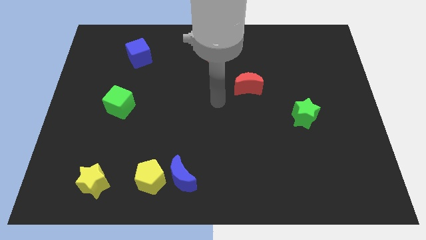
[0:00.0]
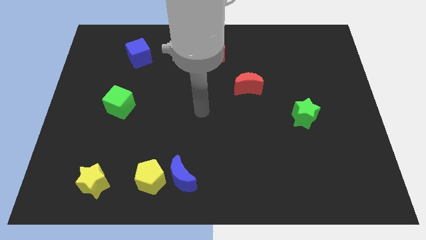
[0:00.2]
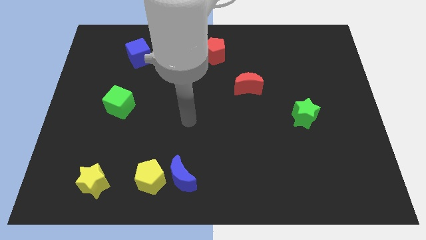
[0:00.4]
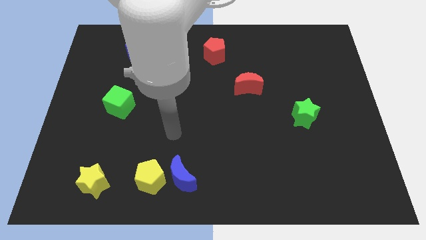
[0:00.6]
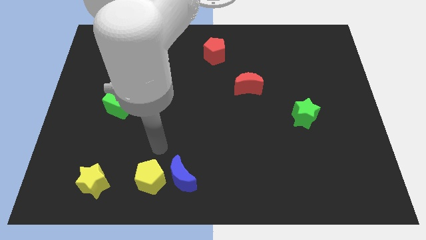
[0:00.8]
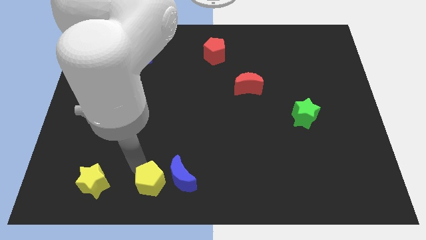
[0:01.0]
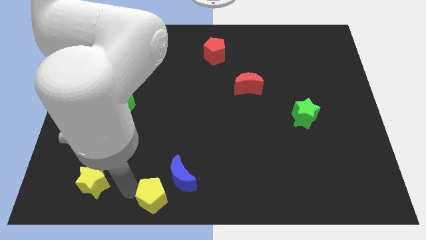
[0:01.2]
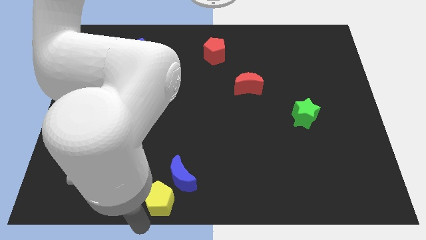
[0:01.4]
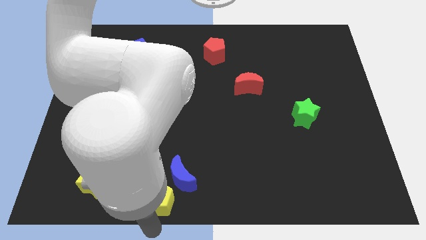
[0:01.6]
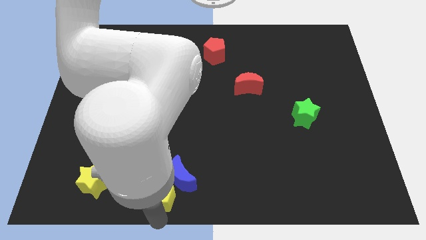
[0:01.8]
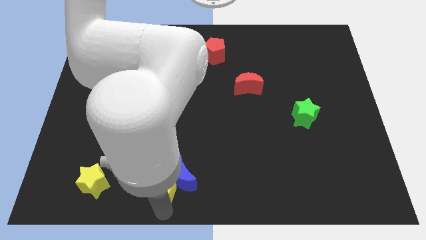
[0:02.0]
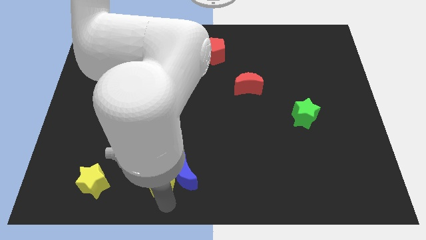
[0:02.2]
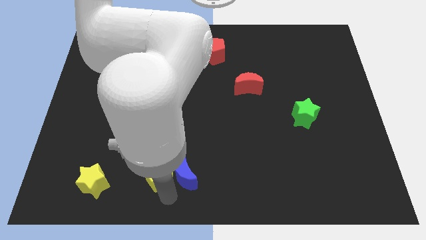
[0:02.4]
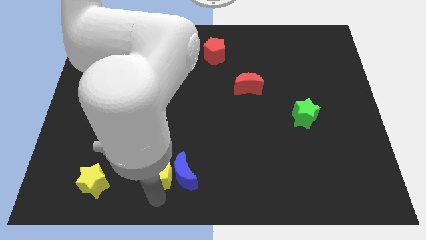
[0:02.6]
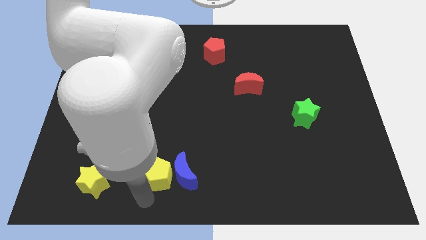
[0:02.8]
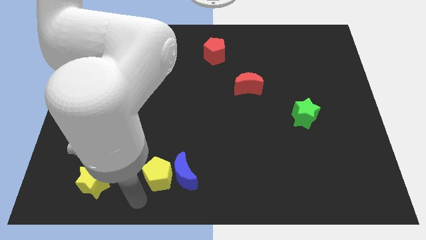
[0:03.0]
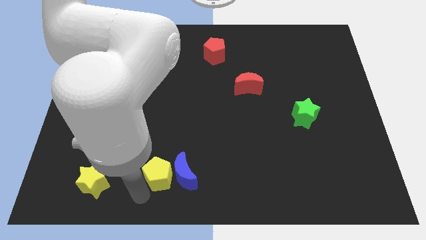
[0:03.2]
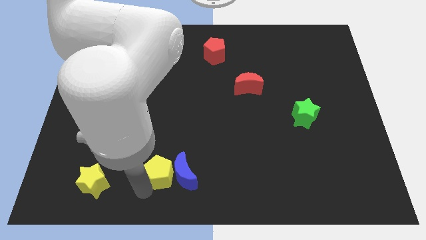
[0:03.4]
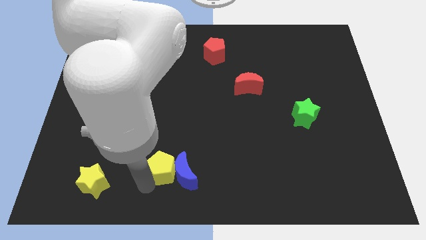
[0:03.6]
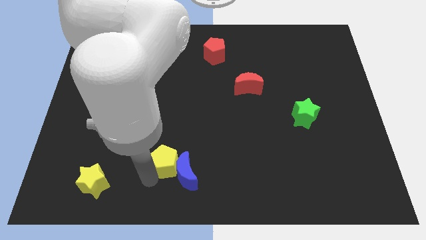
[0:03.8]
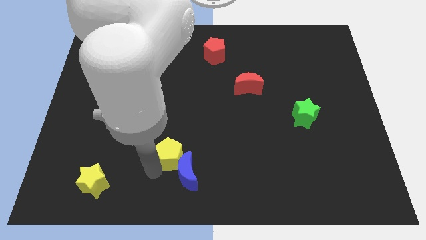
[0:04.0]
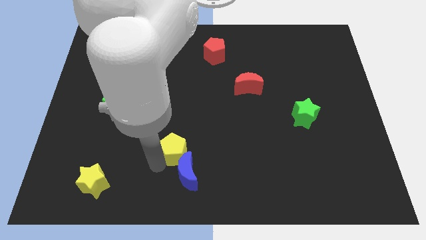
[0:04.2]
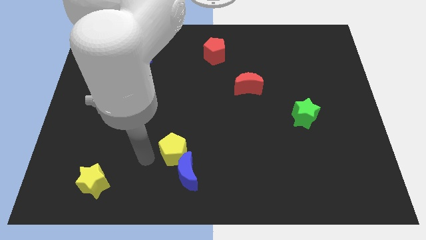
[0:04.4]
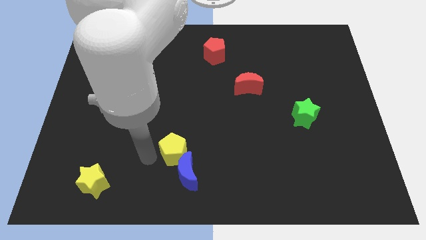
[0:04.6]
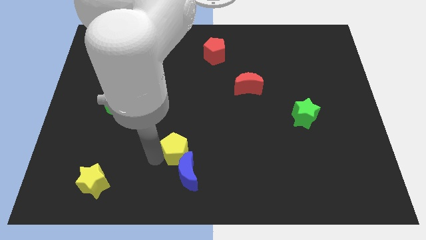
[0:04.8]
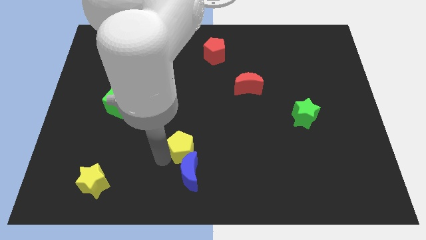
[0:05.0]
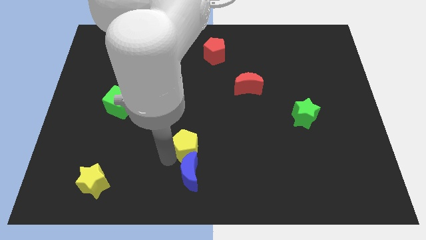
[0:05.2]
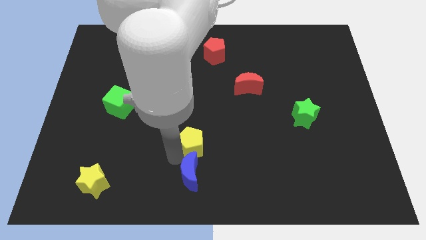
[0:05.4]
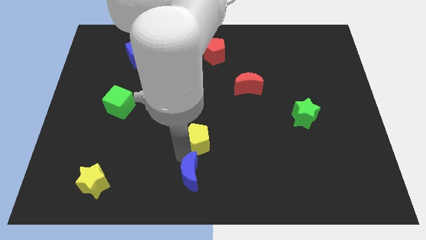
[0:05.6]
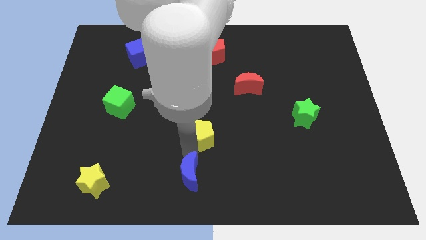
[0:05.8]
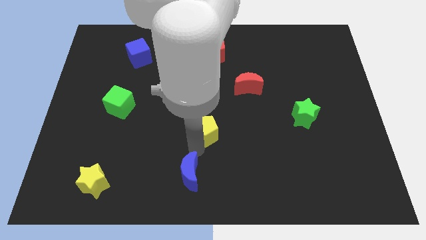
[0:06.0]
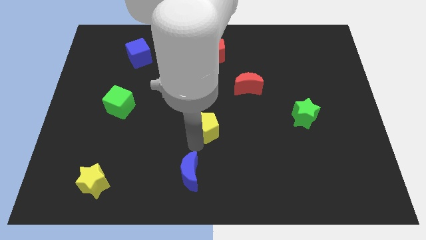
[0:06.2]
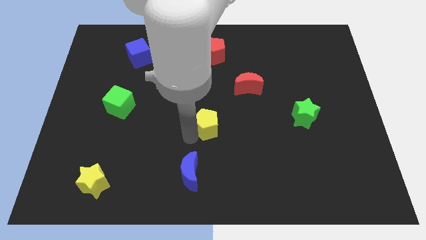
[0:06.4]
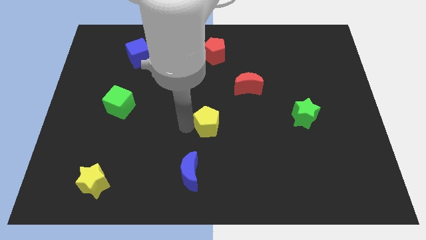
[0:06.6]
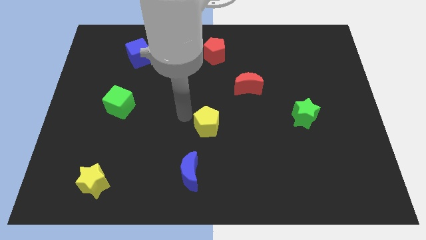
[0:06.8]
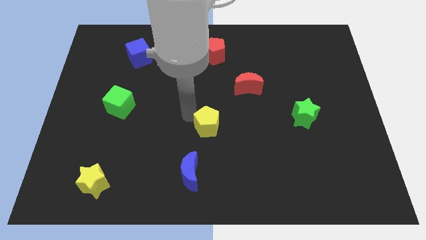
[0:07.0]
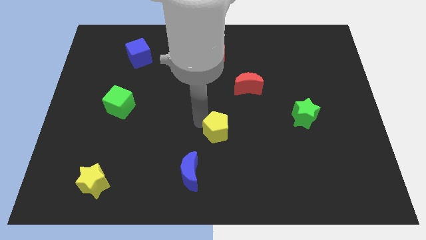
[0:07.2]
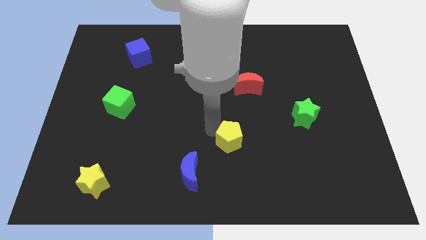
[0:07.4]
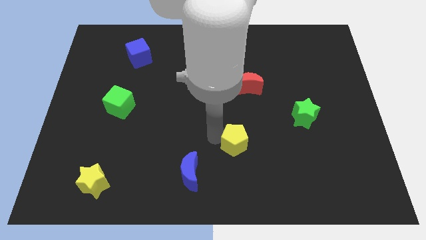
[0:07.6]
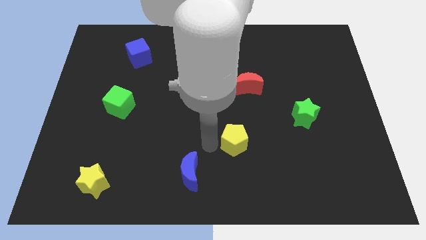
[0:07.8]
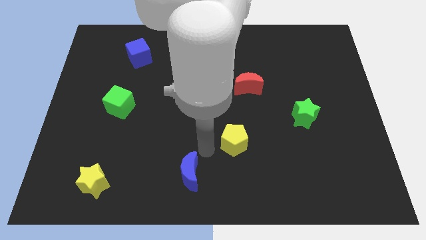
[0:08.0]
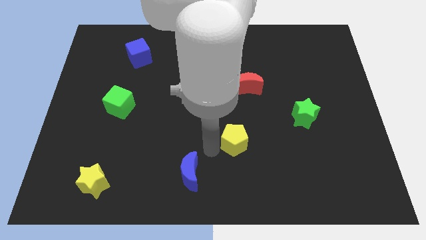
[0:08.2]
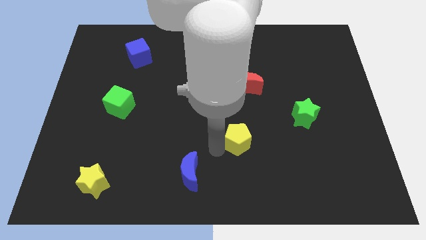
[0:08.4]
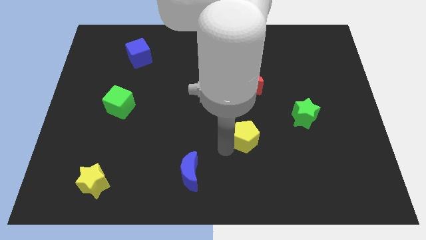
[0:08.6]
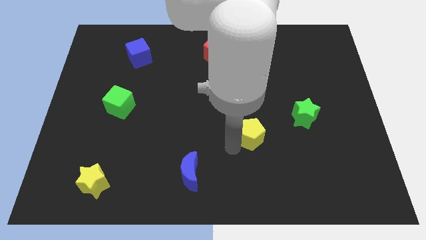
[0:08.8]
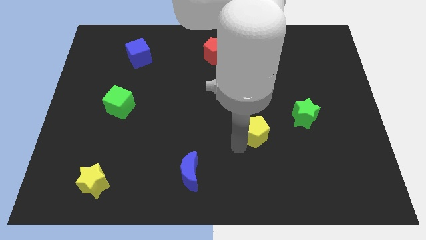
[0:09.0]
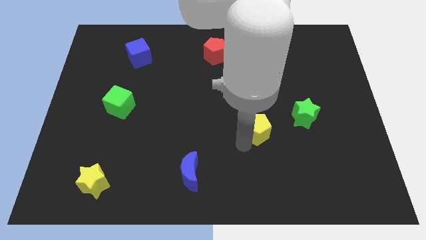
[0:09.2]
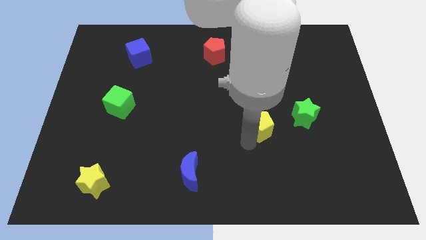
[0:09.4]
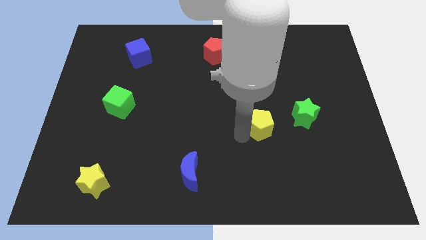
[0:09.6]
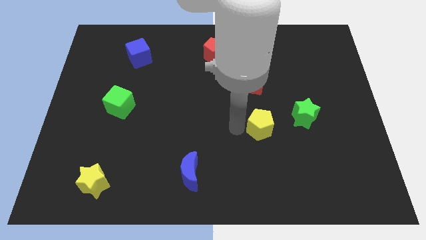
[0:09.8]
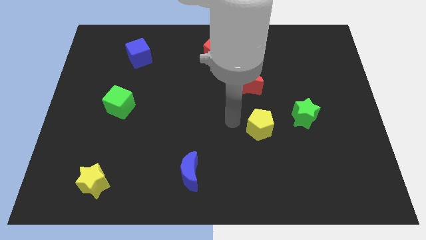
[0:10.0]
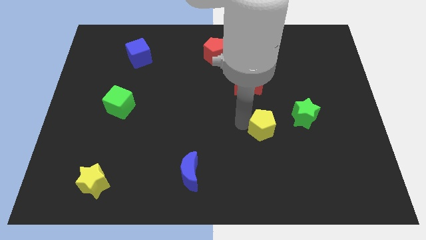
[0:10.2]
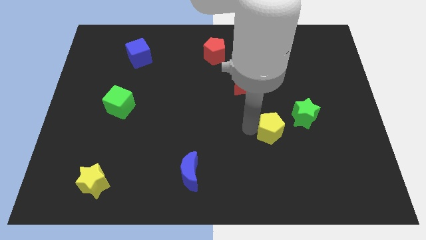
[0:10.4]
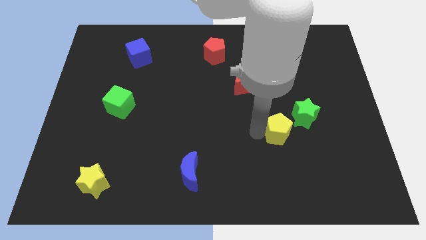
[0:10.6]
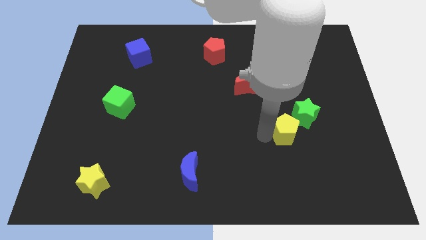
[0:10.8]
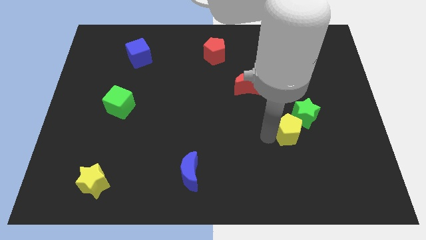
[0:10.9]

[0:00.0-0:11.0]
push the yellow pentagon towards the green star

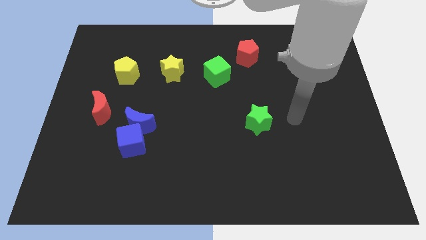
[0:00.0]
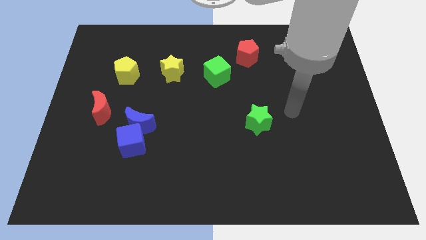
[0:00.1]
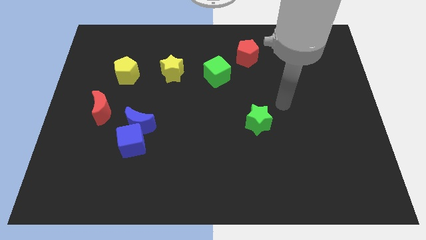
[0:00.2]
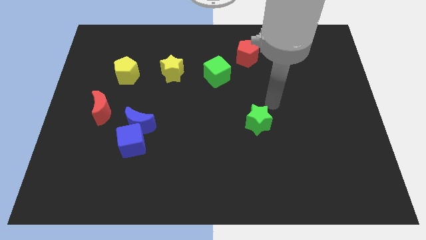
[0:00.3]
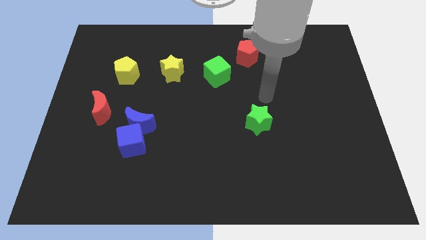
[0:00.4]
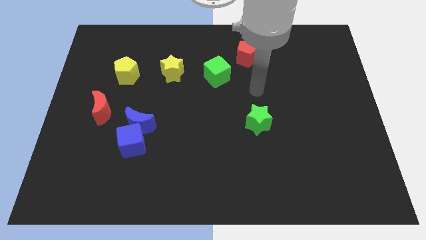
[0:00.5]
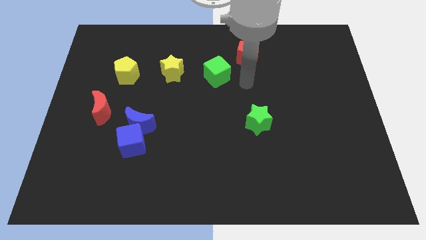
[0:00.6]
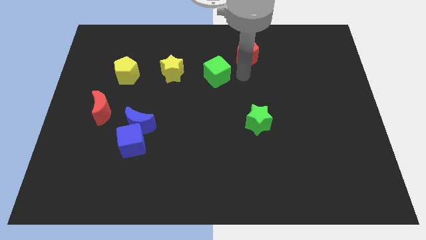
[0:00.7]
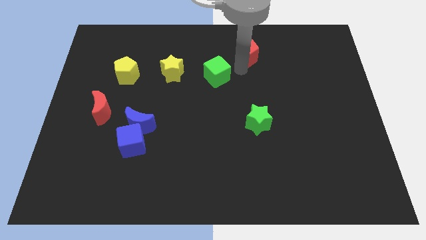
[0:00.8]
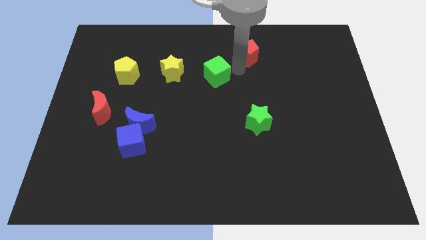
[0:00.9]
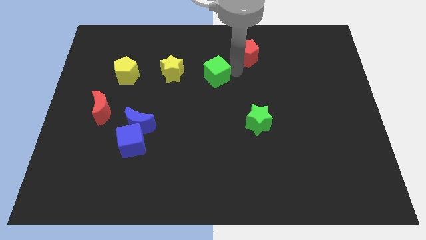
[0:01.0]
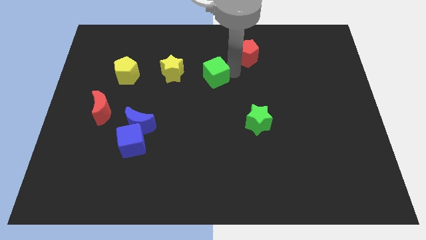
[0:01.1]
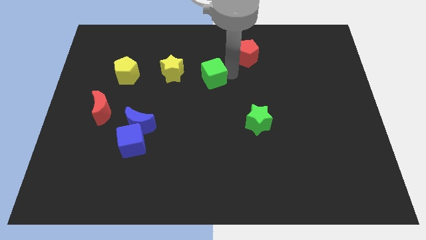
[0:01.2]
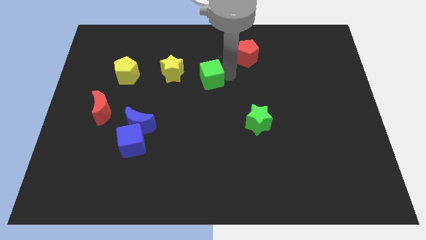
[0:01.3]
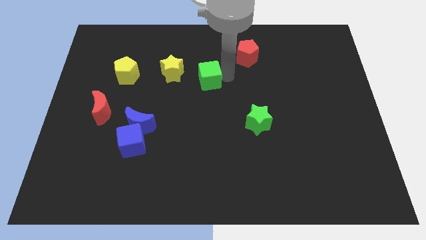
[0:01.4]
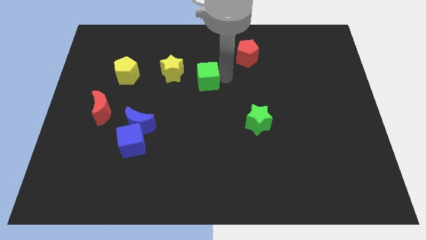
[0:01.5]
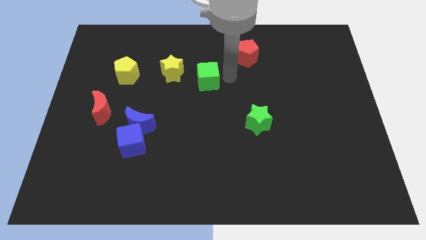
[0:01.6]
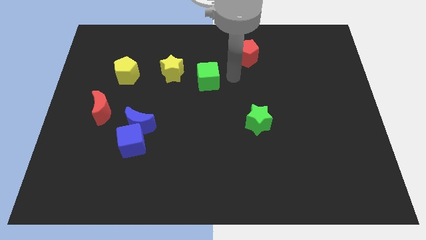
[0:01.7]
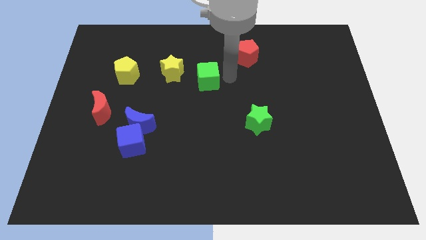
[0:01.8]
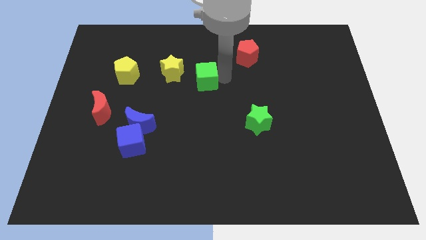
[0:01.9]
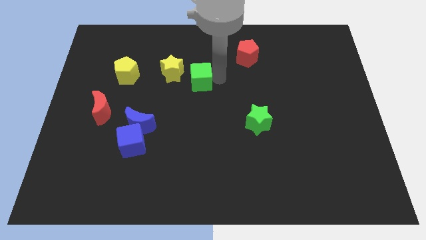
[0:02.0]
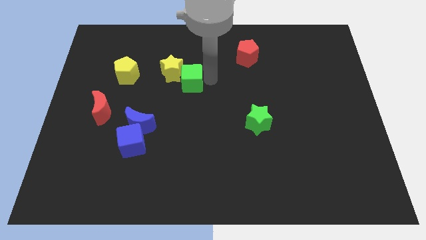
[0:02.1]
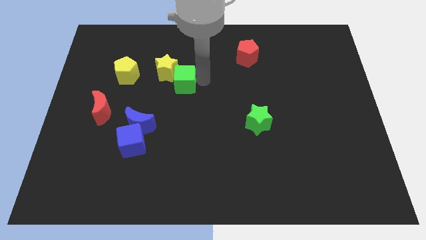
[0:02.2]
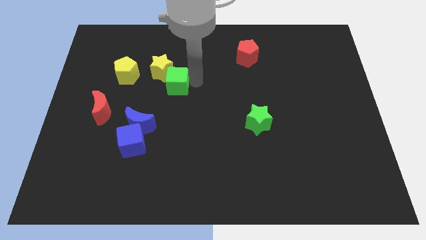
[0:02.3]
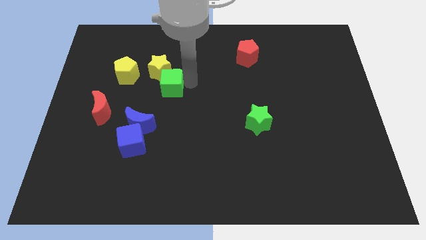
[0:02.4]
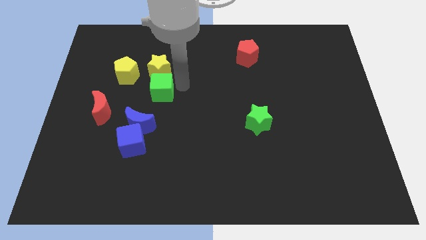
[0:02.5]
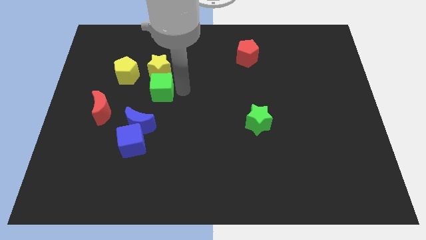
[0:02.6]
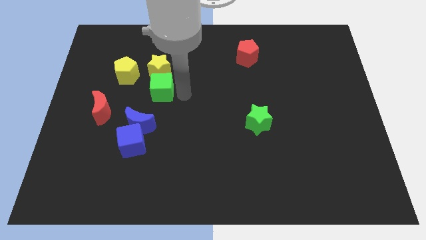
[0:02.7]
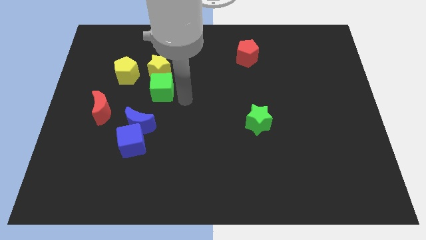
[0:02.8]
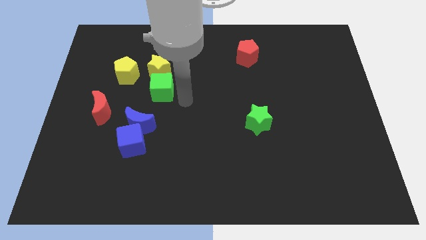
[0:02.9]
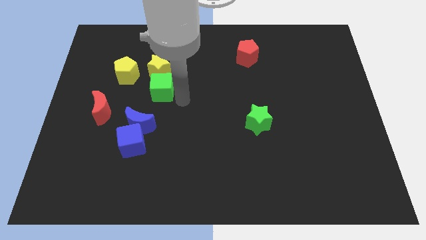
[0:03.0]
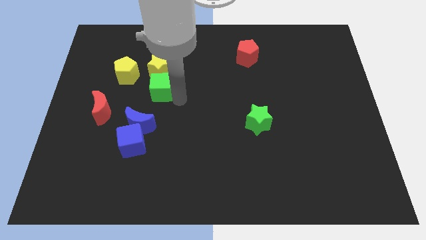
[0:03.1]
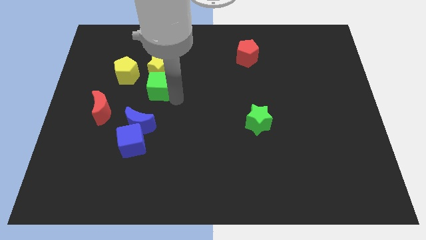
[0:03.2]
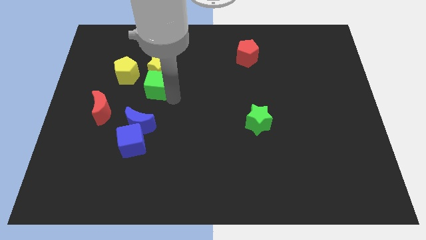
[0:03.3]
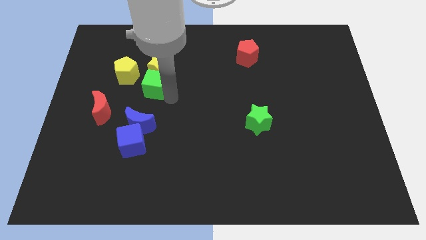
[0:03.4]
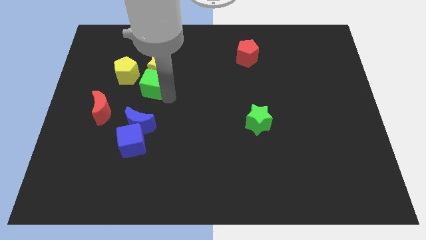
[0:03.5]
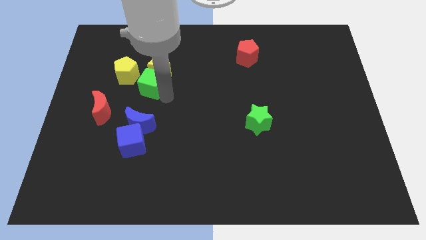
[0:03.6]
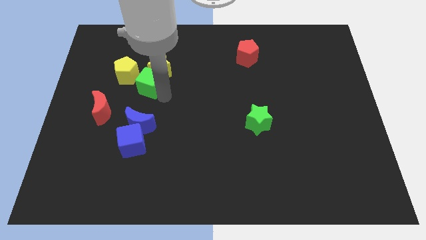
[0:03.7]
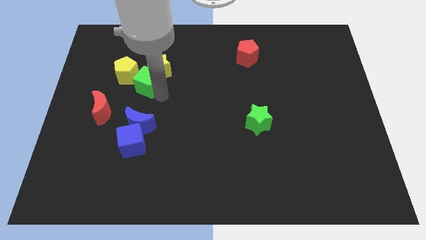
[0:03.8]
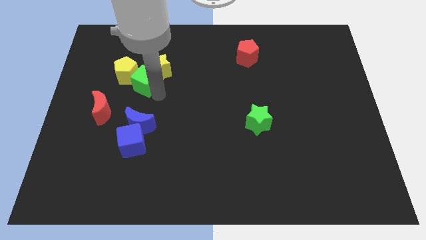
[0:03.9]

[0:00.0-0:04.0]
put the green cube next to the yellow pentagon
